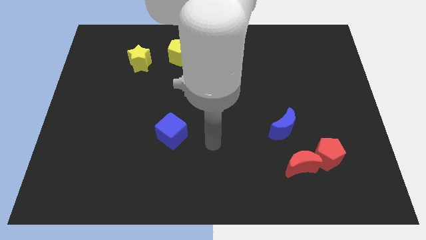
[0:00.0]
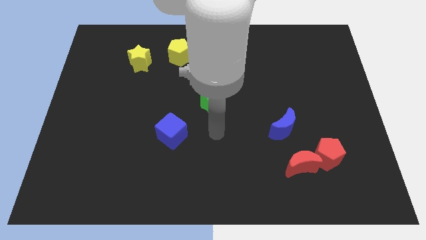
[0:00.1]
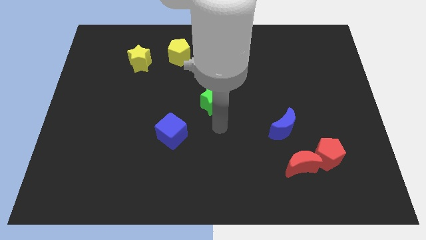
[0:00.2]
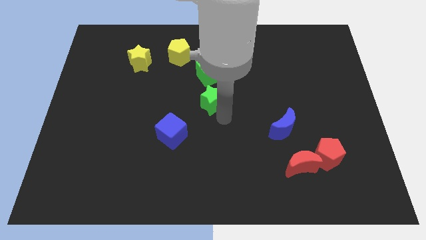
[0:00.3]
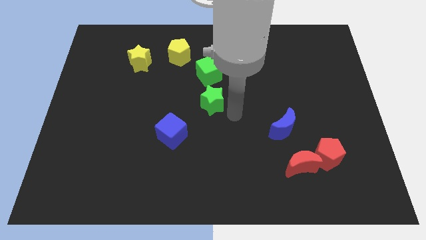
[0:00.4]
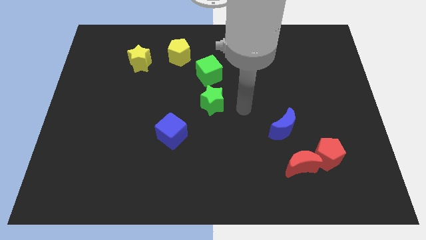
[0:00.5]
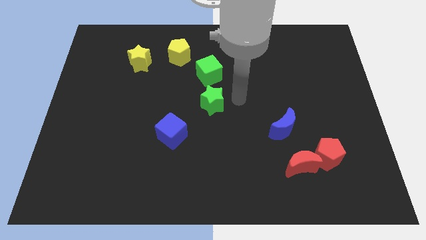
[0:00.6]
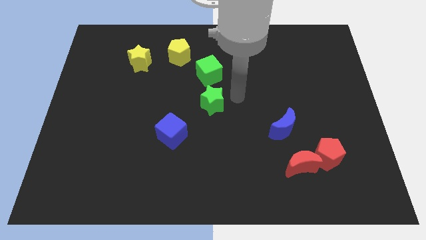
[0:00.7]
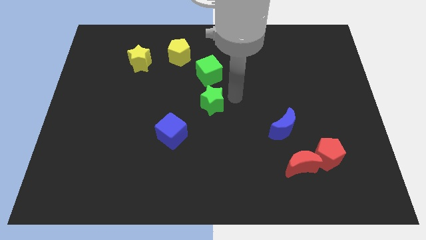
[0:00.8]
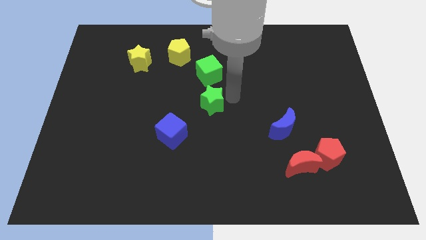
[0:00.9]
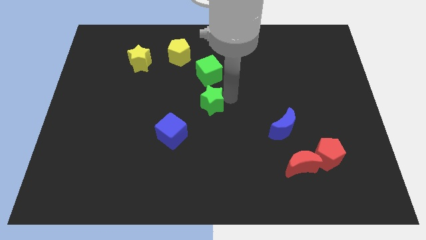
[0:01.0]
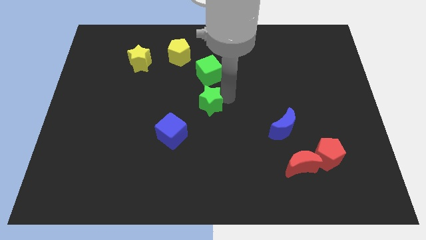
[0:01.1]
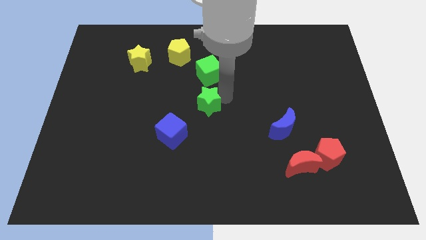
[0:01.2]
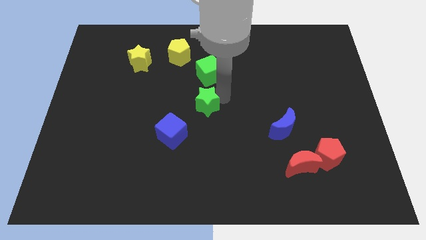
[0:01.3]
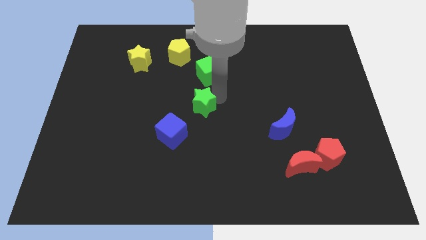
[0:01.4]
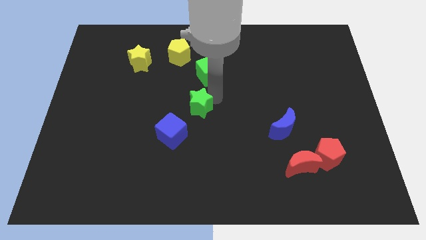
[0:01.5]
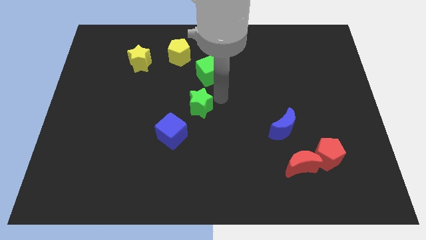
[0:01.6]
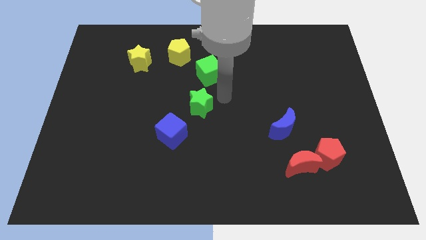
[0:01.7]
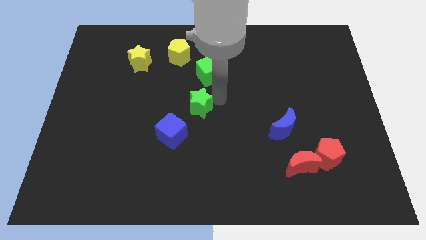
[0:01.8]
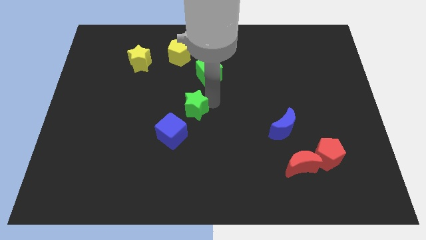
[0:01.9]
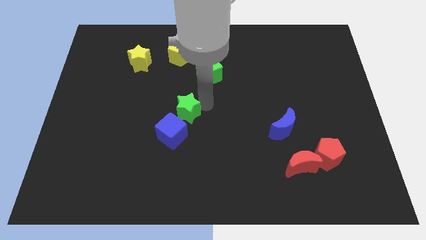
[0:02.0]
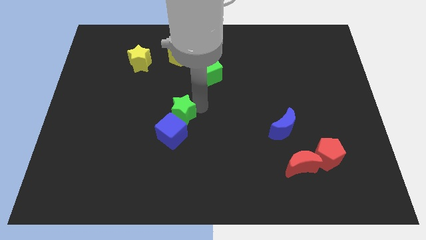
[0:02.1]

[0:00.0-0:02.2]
slightly push the green star downwards and then to the left

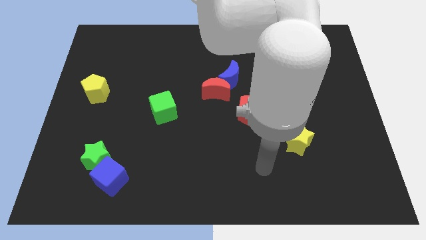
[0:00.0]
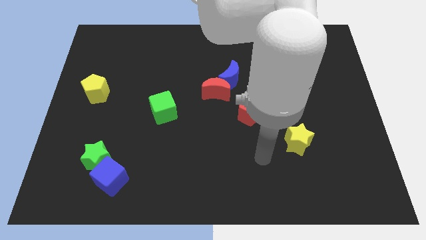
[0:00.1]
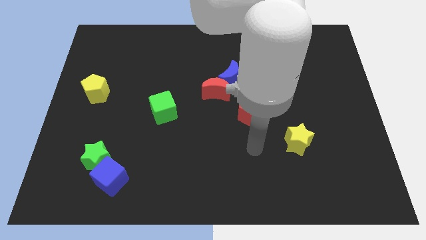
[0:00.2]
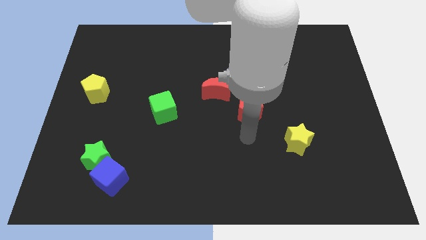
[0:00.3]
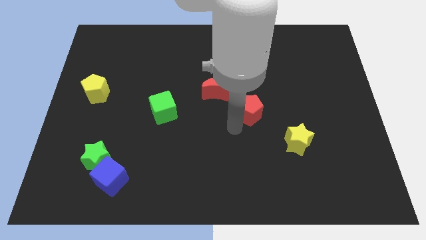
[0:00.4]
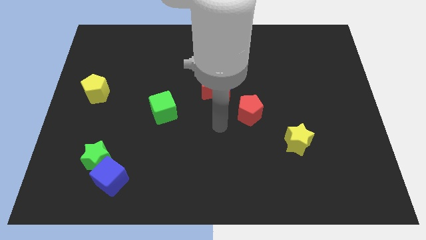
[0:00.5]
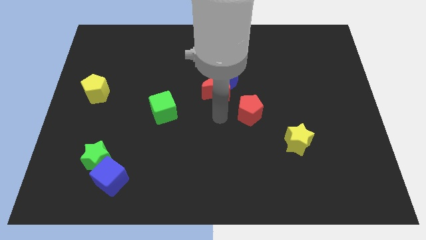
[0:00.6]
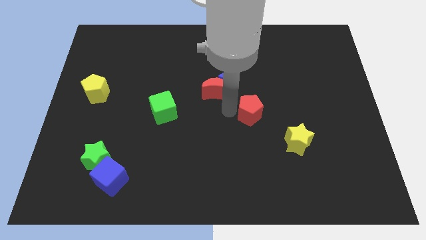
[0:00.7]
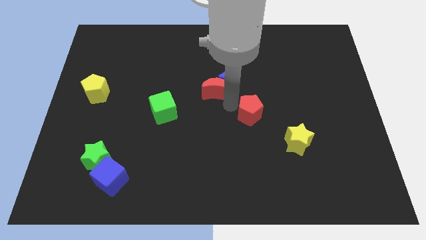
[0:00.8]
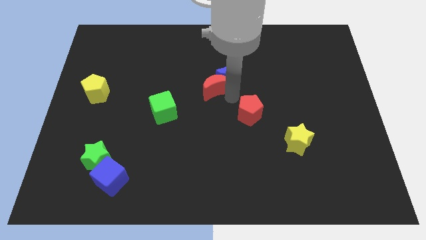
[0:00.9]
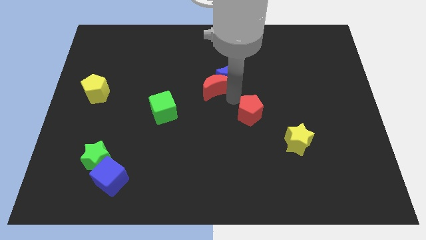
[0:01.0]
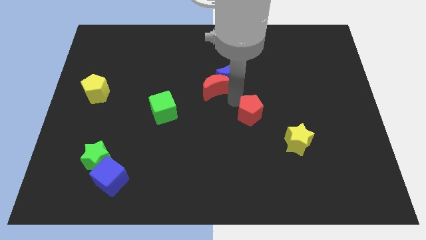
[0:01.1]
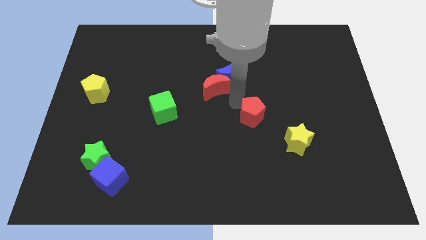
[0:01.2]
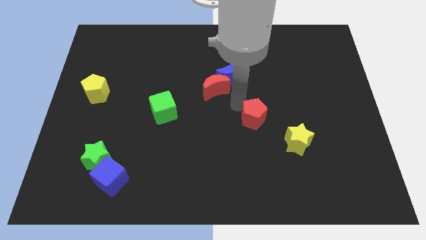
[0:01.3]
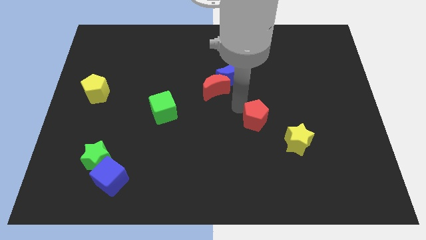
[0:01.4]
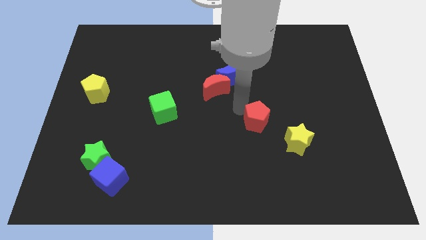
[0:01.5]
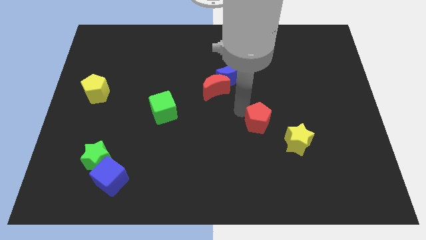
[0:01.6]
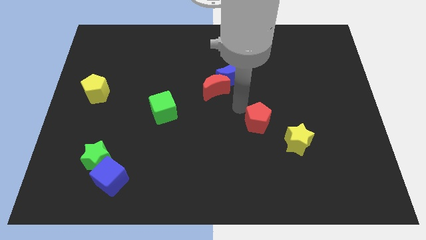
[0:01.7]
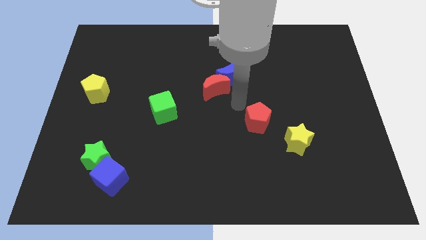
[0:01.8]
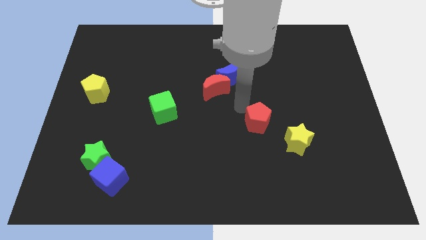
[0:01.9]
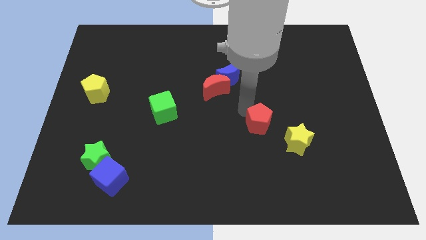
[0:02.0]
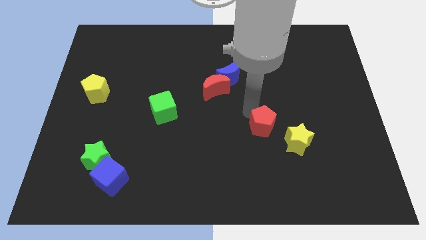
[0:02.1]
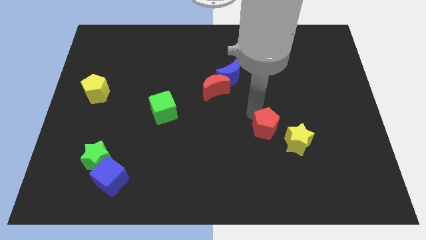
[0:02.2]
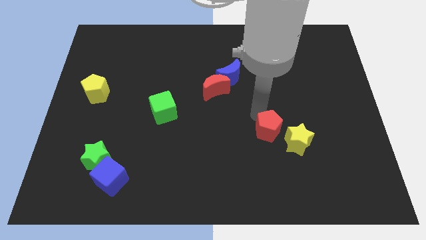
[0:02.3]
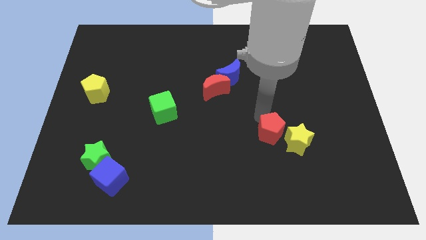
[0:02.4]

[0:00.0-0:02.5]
slide the red pentagon somewhat downwards and to the right diagonally

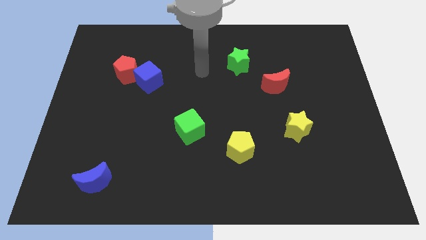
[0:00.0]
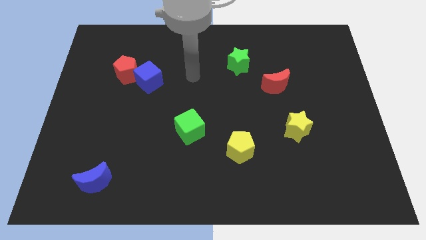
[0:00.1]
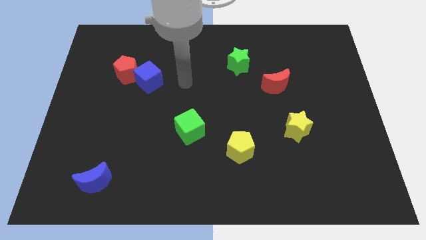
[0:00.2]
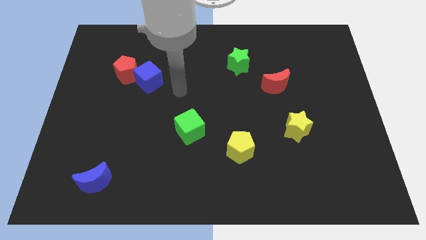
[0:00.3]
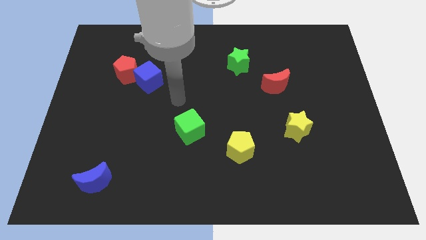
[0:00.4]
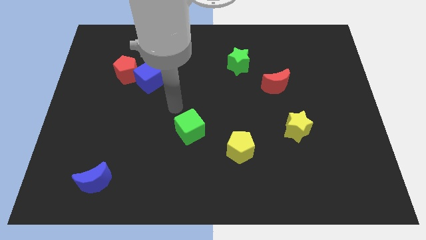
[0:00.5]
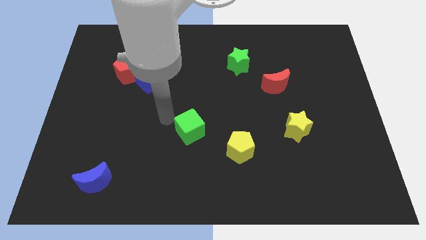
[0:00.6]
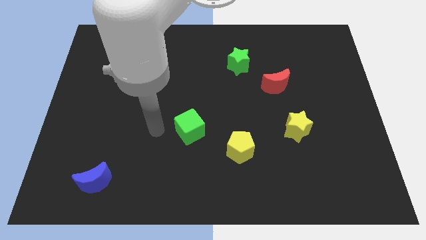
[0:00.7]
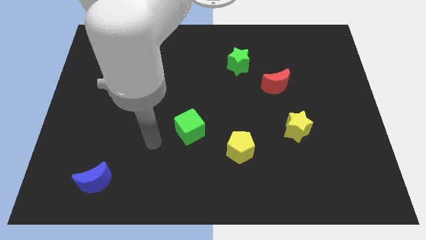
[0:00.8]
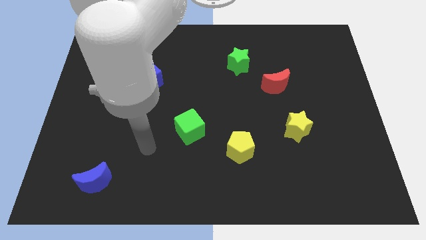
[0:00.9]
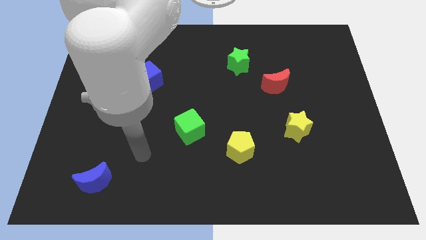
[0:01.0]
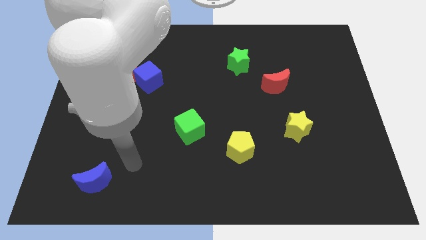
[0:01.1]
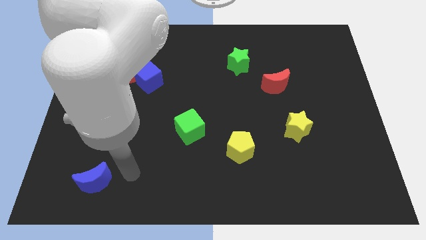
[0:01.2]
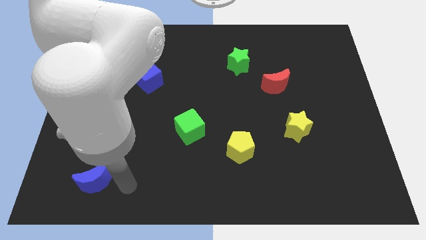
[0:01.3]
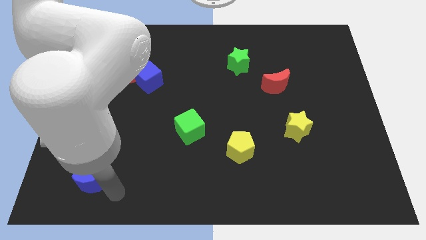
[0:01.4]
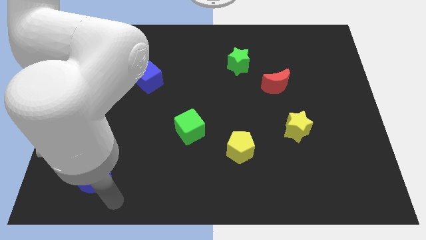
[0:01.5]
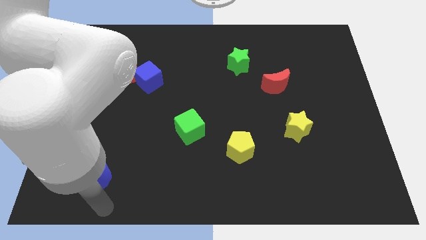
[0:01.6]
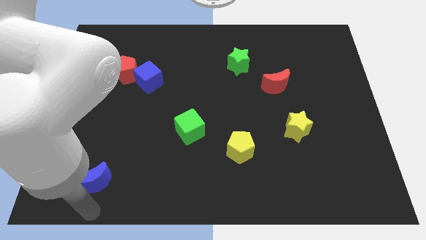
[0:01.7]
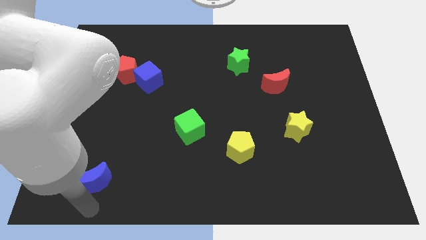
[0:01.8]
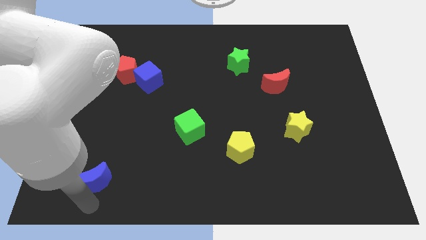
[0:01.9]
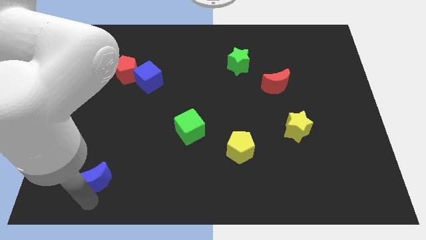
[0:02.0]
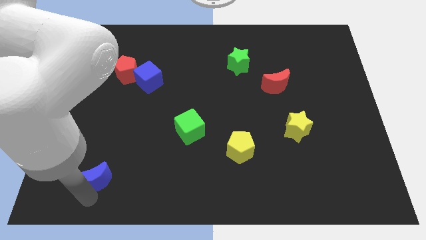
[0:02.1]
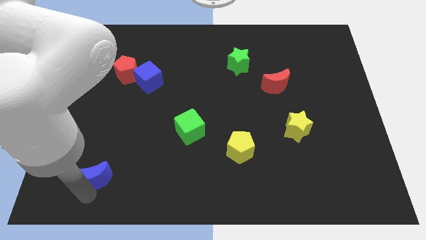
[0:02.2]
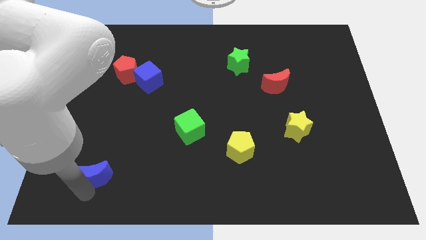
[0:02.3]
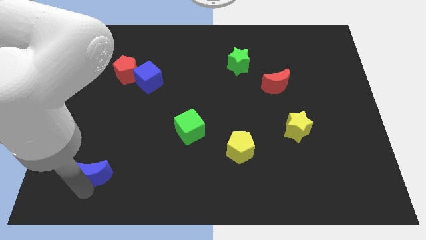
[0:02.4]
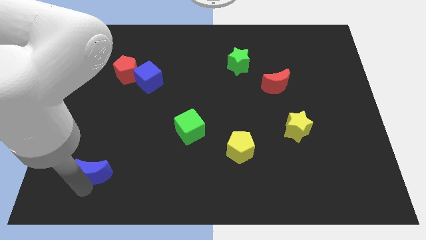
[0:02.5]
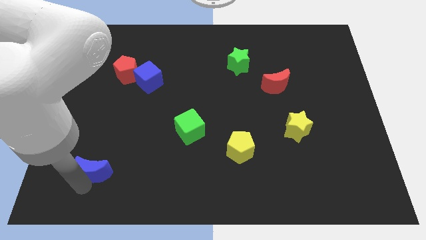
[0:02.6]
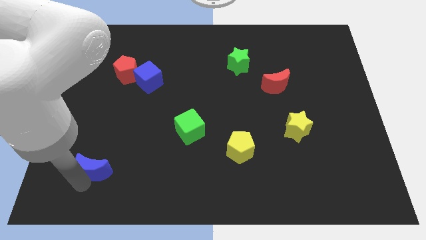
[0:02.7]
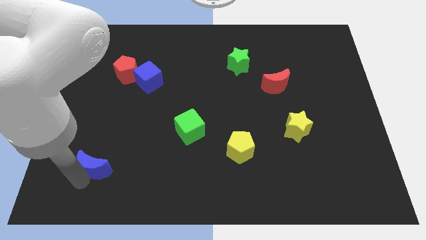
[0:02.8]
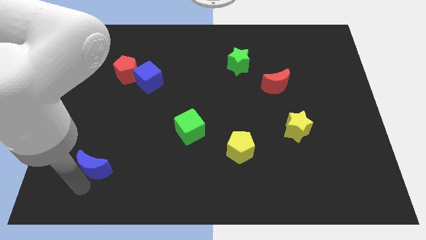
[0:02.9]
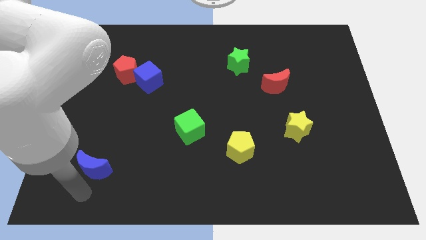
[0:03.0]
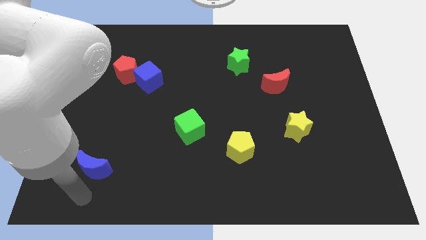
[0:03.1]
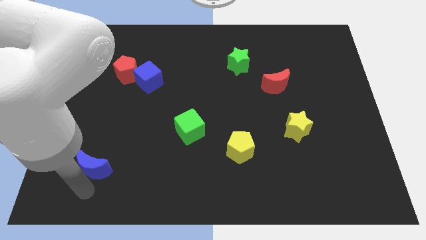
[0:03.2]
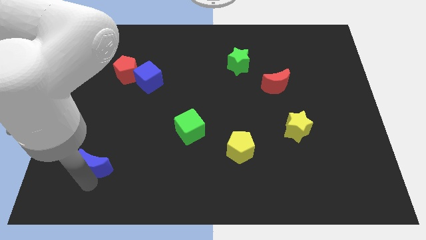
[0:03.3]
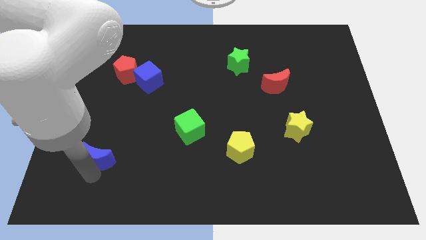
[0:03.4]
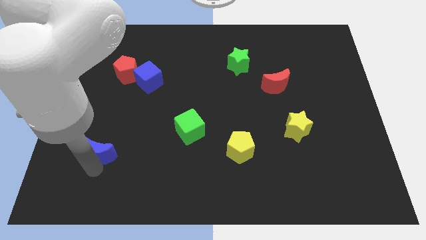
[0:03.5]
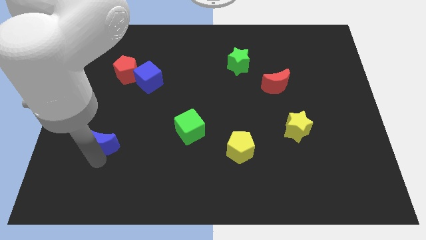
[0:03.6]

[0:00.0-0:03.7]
slightly move the blue moon up

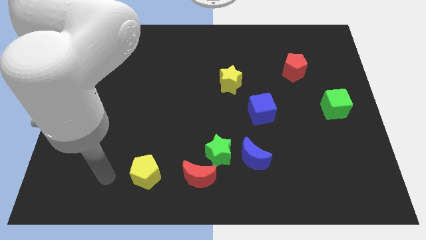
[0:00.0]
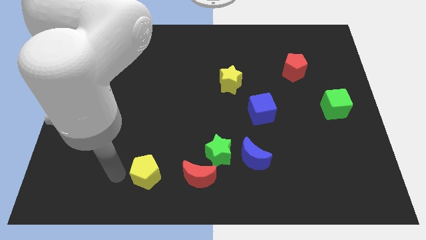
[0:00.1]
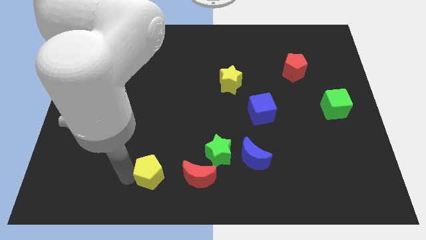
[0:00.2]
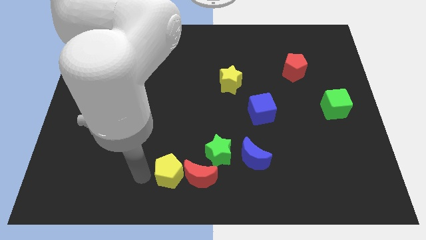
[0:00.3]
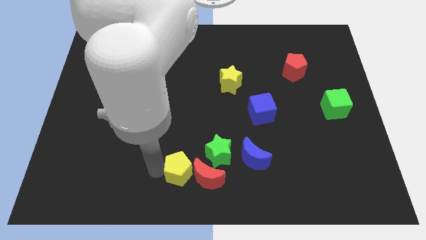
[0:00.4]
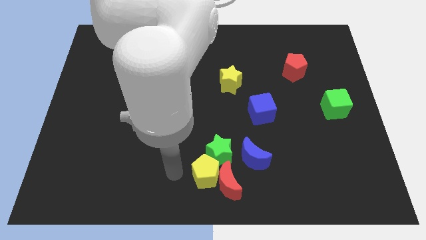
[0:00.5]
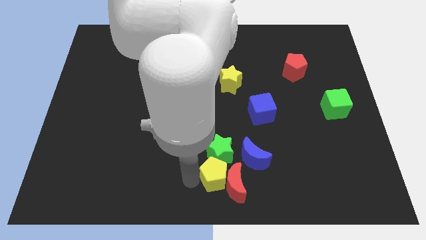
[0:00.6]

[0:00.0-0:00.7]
move the red moon slightly to the right
